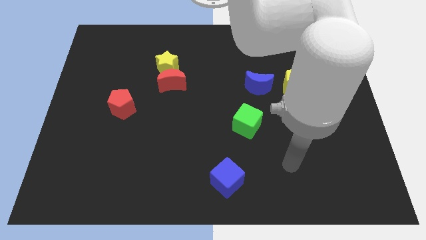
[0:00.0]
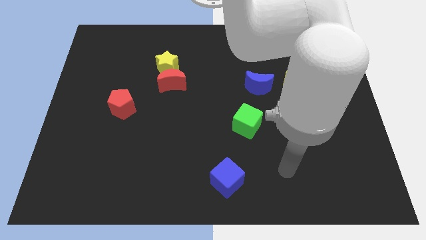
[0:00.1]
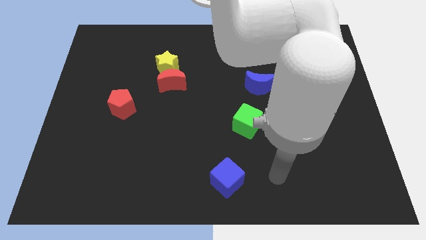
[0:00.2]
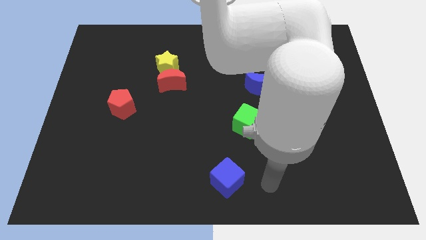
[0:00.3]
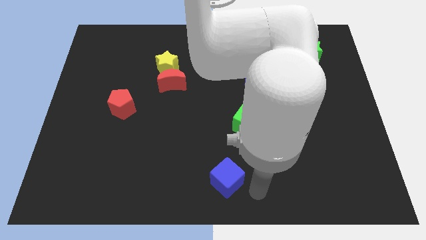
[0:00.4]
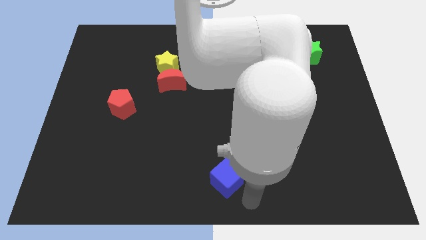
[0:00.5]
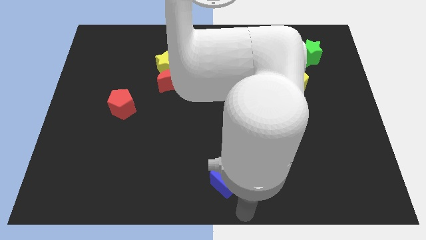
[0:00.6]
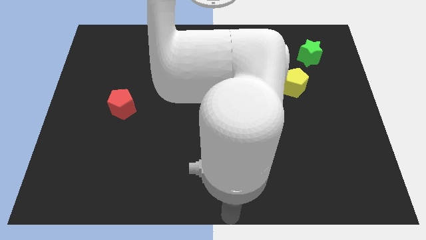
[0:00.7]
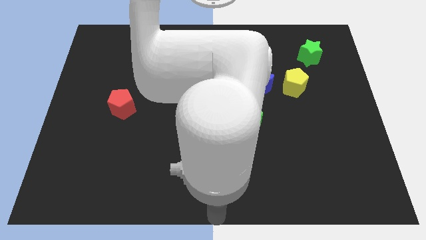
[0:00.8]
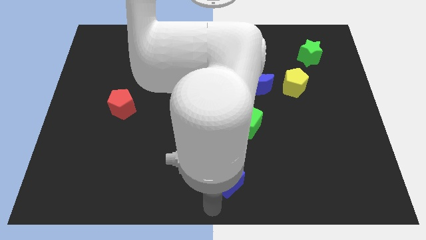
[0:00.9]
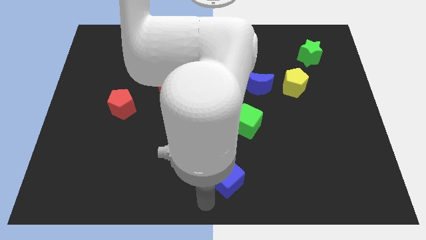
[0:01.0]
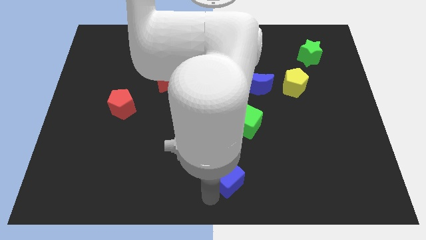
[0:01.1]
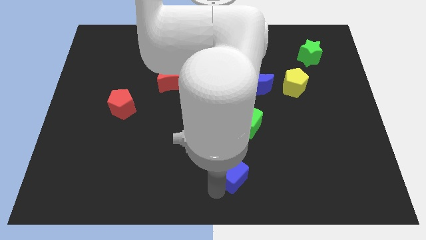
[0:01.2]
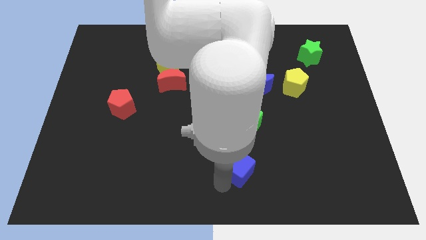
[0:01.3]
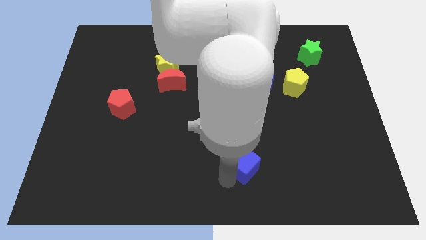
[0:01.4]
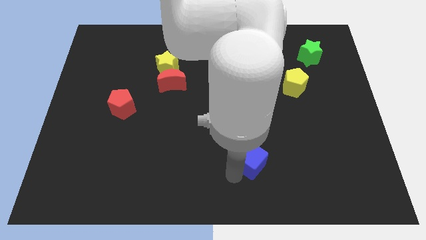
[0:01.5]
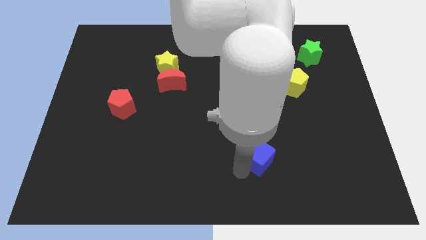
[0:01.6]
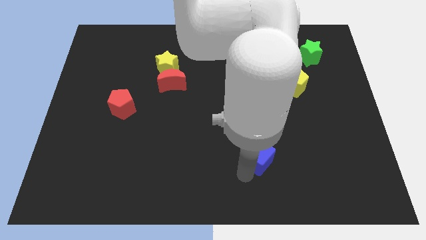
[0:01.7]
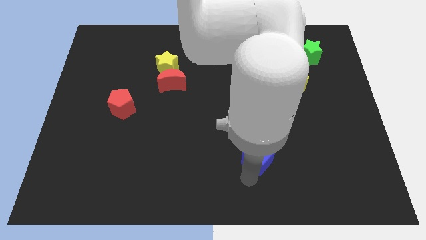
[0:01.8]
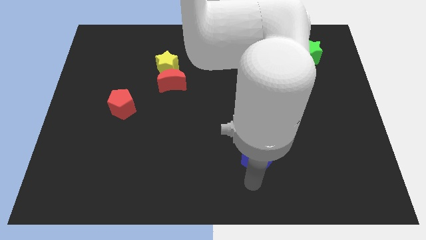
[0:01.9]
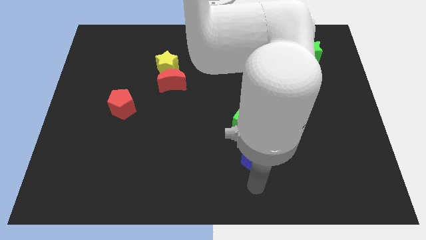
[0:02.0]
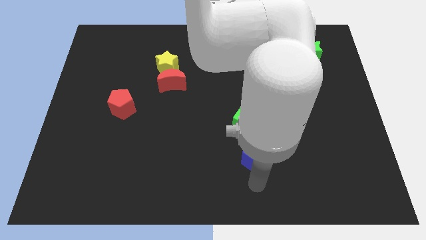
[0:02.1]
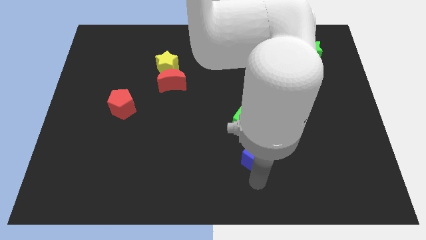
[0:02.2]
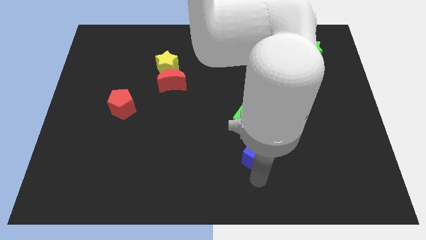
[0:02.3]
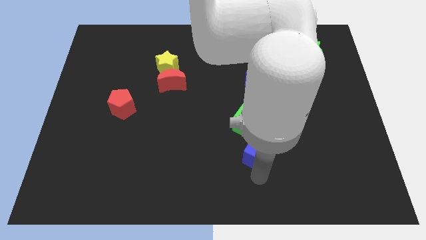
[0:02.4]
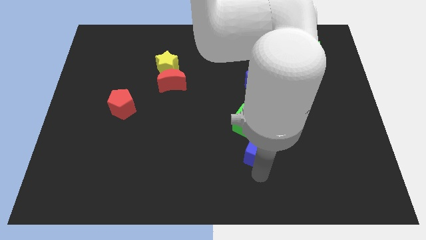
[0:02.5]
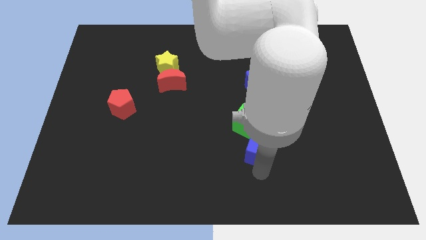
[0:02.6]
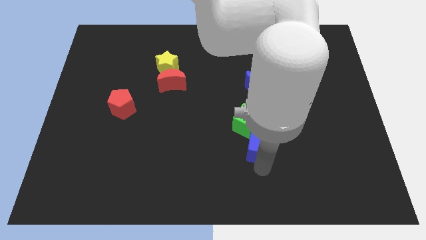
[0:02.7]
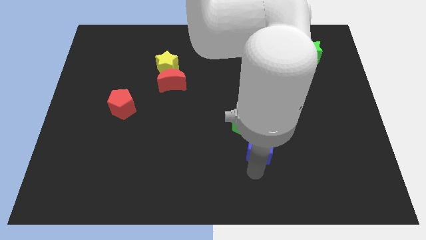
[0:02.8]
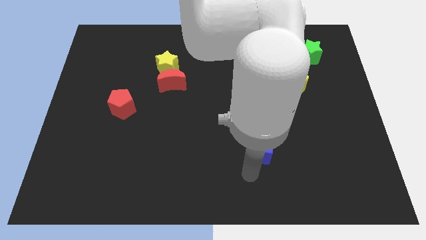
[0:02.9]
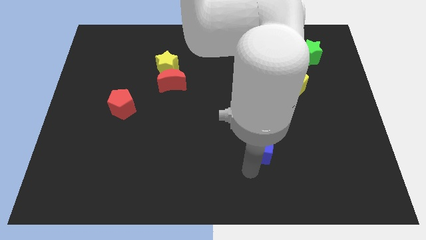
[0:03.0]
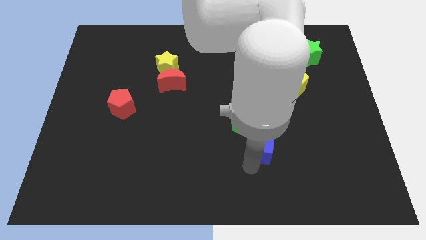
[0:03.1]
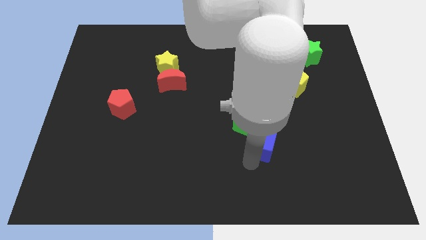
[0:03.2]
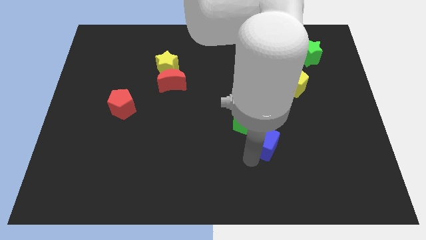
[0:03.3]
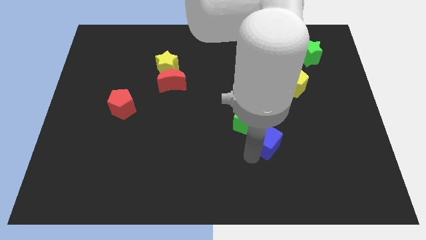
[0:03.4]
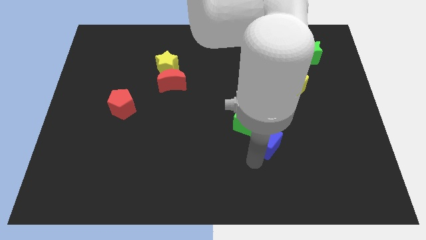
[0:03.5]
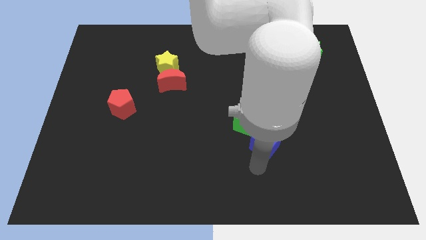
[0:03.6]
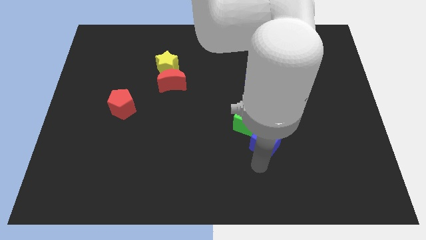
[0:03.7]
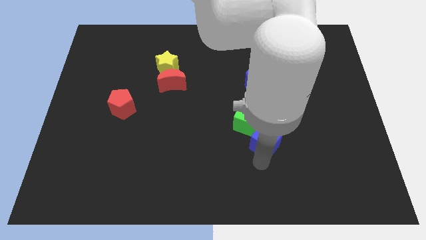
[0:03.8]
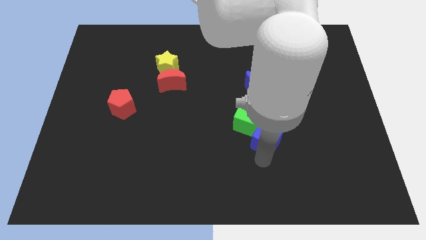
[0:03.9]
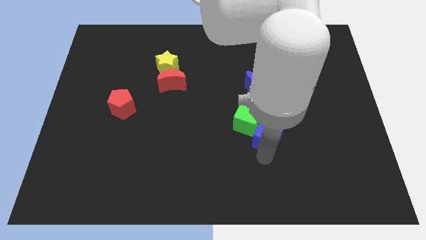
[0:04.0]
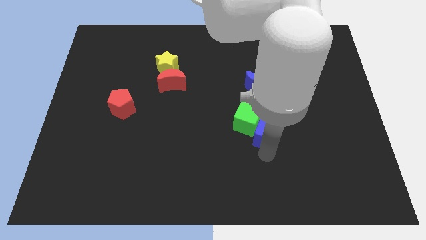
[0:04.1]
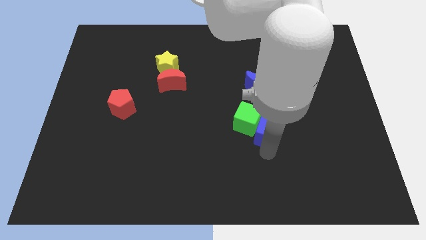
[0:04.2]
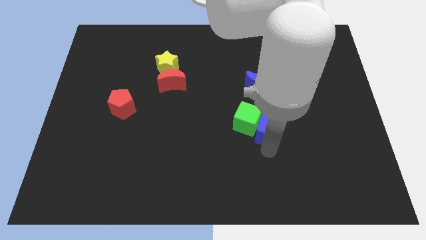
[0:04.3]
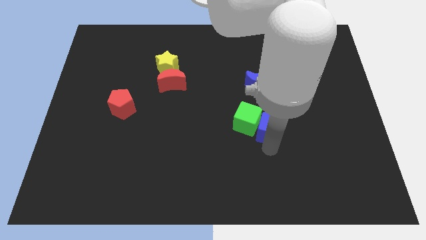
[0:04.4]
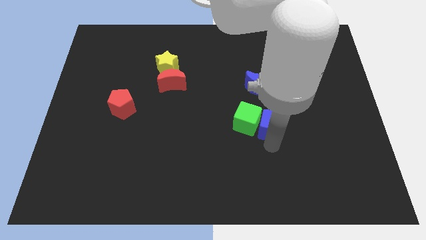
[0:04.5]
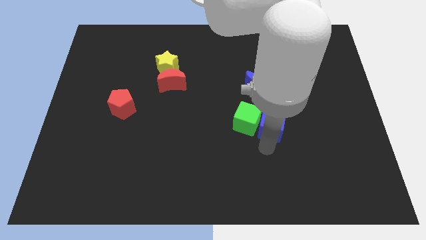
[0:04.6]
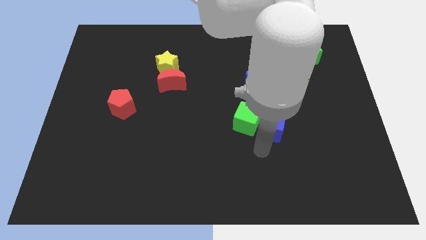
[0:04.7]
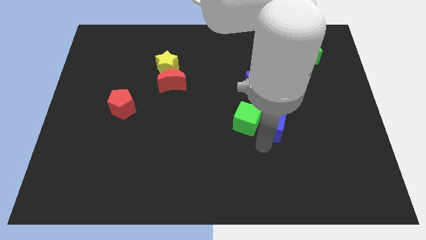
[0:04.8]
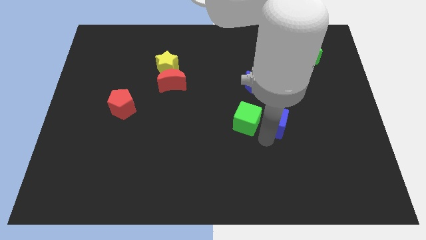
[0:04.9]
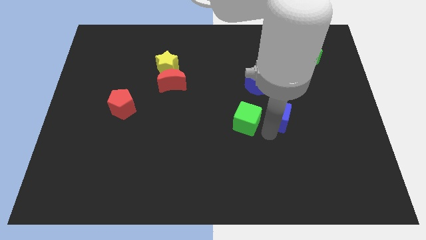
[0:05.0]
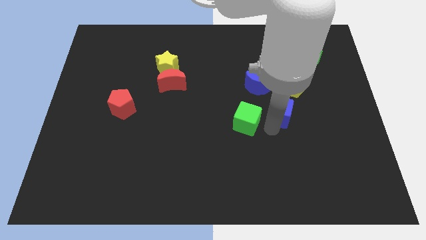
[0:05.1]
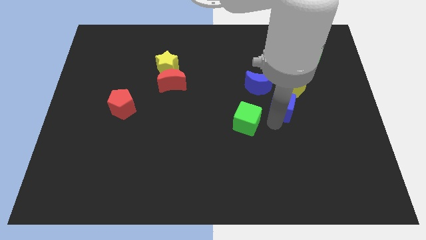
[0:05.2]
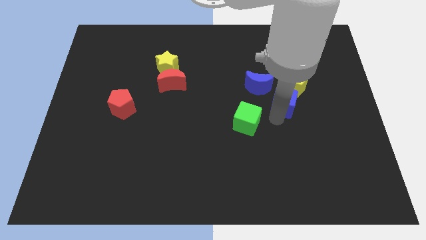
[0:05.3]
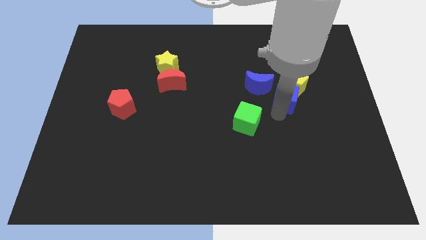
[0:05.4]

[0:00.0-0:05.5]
move the blue cube to the yellow pentagon

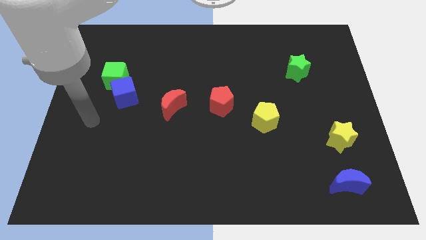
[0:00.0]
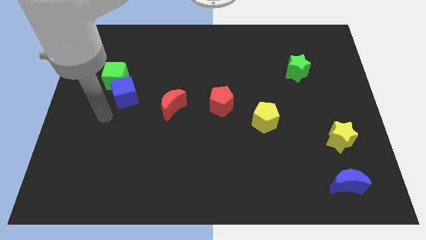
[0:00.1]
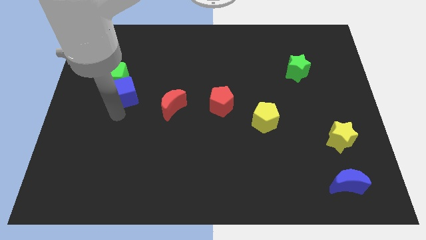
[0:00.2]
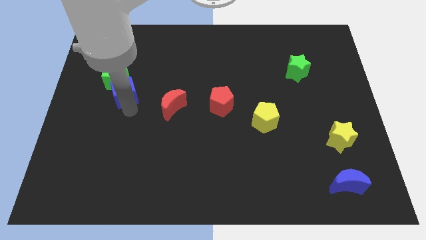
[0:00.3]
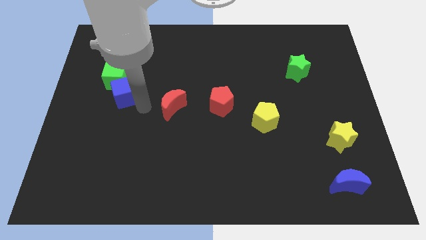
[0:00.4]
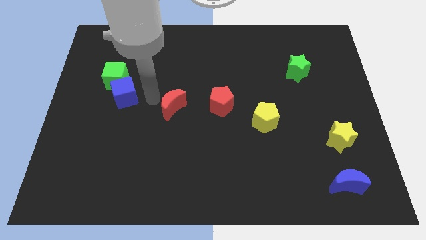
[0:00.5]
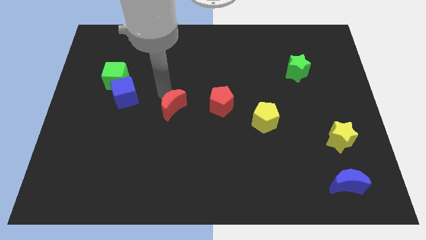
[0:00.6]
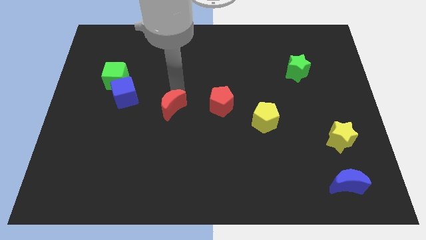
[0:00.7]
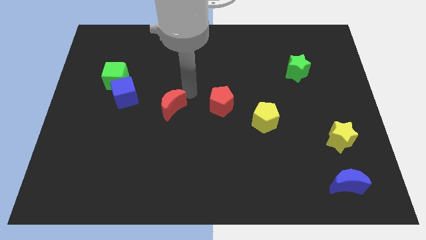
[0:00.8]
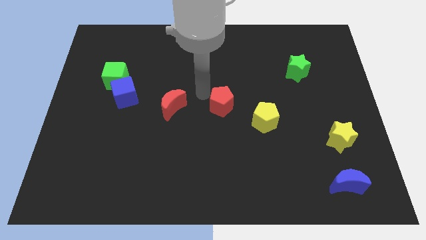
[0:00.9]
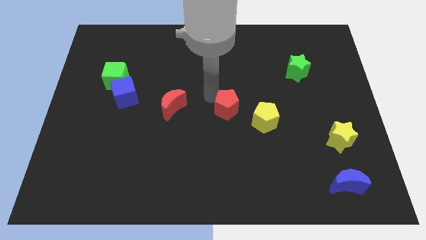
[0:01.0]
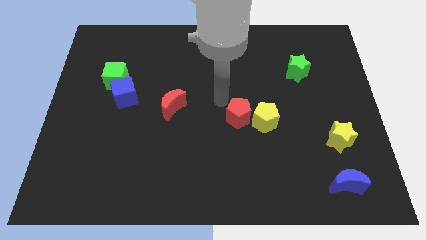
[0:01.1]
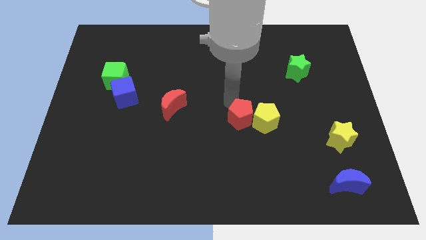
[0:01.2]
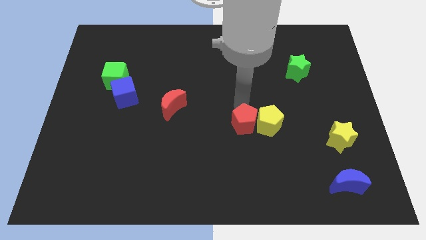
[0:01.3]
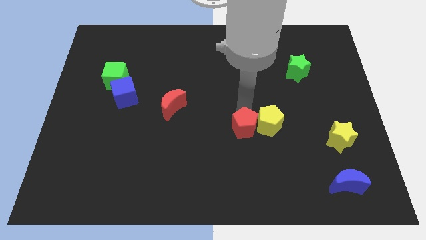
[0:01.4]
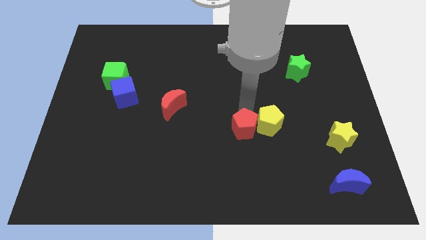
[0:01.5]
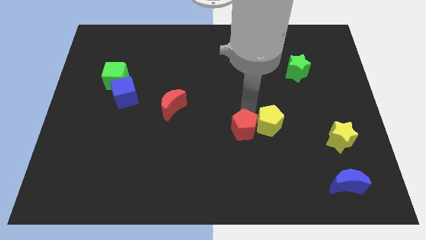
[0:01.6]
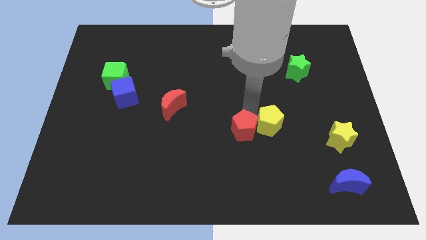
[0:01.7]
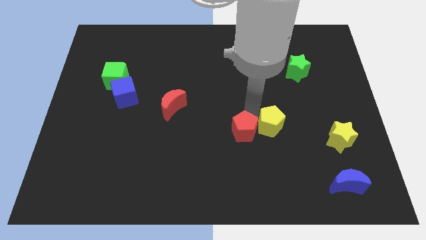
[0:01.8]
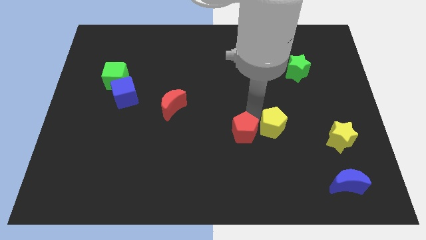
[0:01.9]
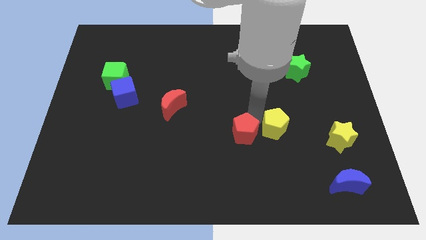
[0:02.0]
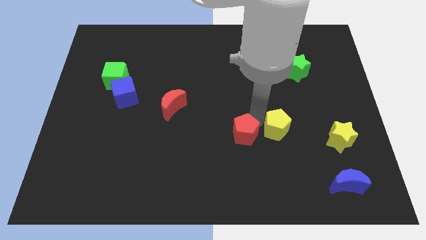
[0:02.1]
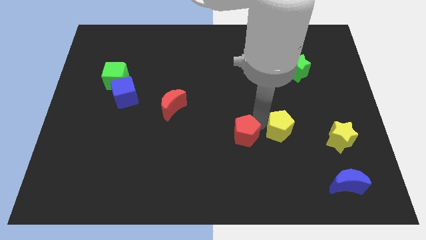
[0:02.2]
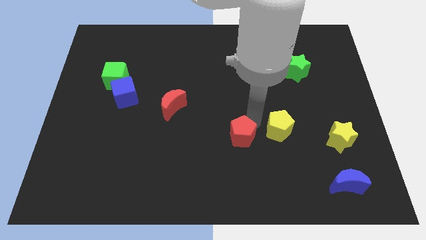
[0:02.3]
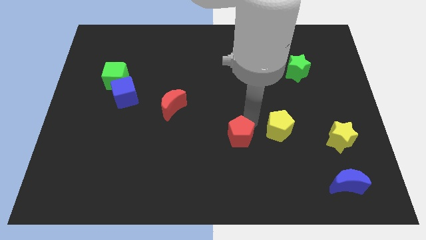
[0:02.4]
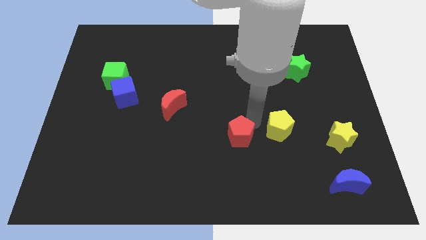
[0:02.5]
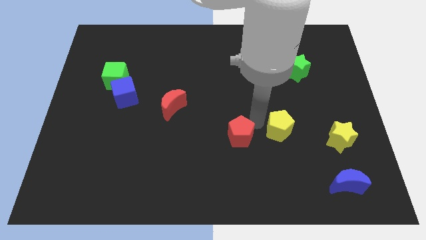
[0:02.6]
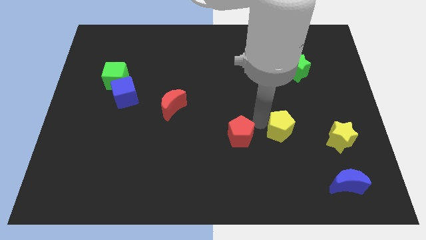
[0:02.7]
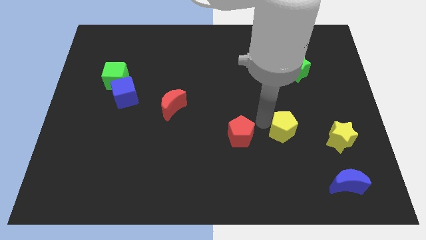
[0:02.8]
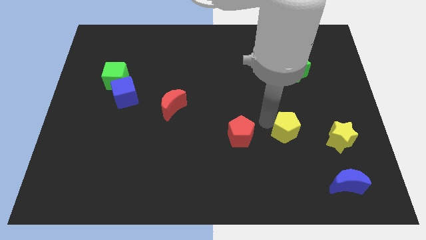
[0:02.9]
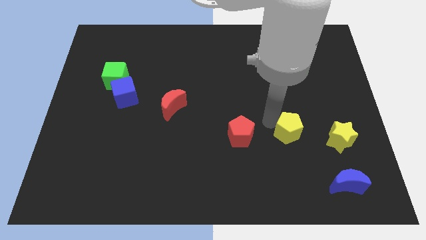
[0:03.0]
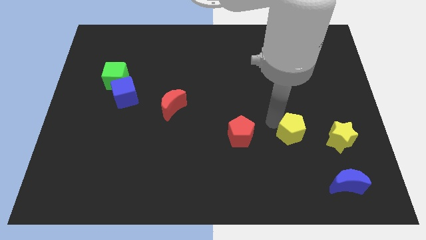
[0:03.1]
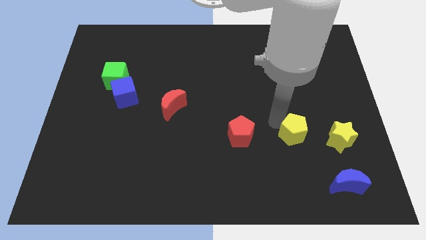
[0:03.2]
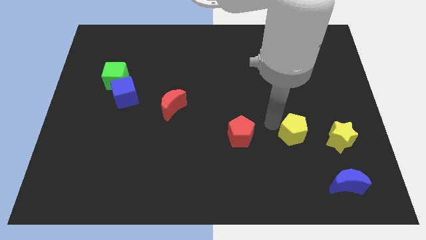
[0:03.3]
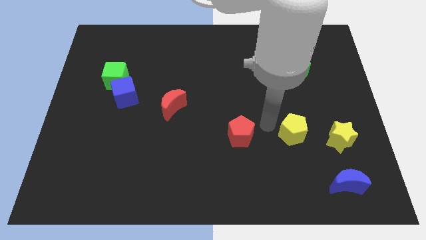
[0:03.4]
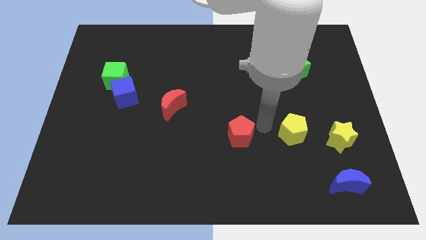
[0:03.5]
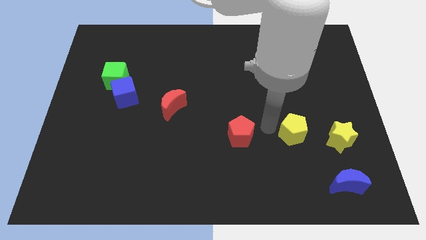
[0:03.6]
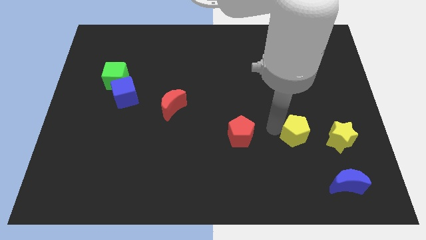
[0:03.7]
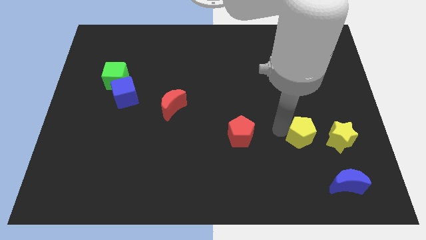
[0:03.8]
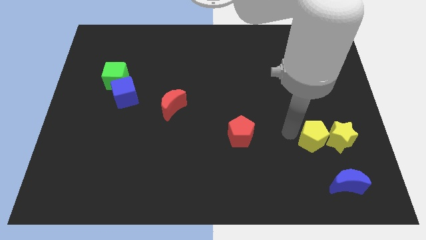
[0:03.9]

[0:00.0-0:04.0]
put the yellow pentagon towards the yellow star
